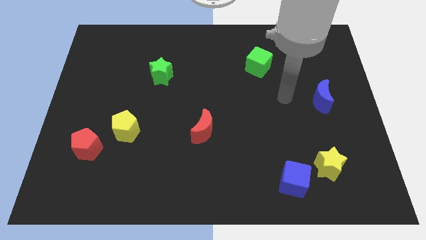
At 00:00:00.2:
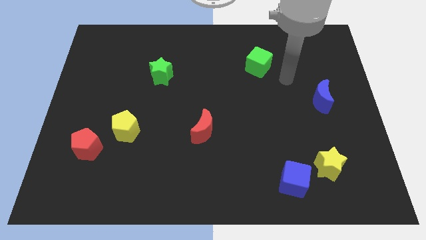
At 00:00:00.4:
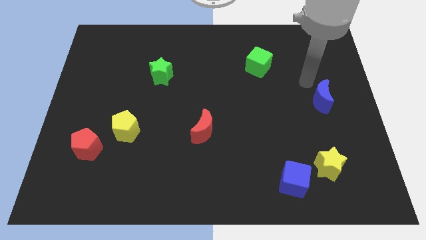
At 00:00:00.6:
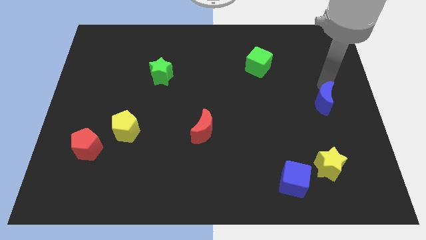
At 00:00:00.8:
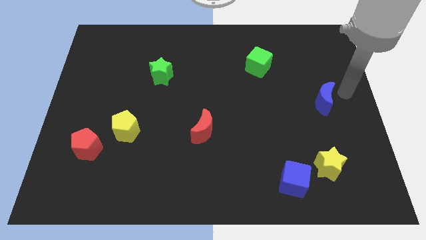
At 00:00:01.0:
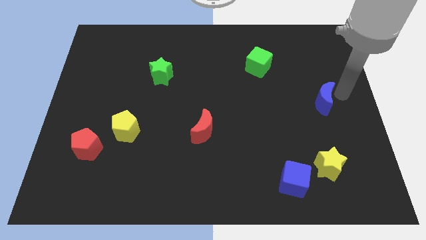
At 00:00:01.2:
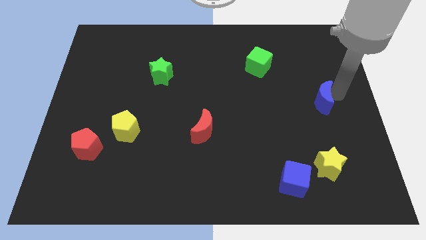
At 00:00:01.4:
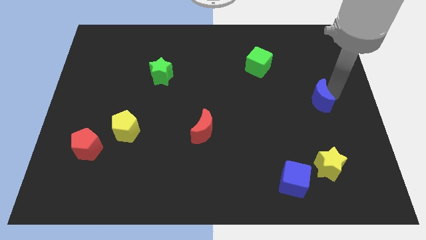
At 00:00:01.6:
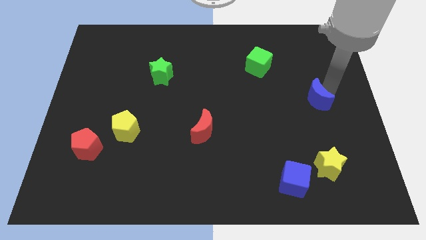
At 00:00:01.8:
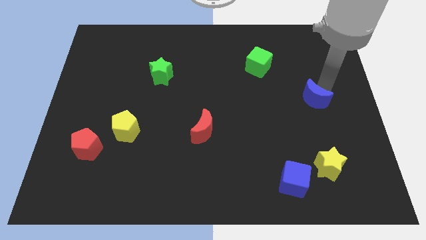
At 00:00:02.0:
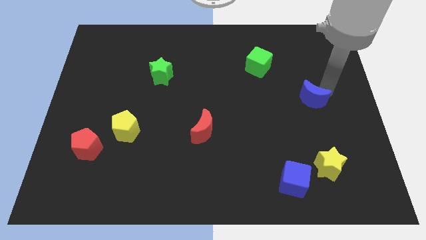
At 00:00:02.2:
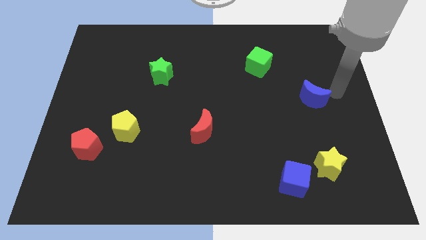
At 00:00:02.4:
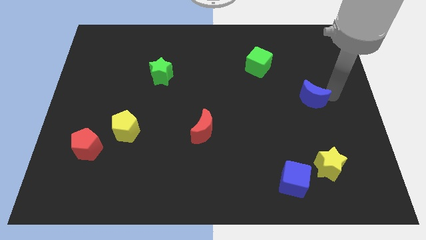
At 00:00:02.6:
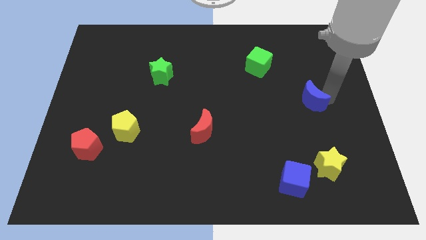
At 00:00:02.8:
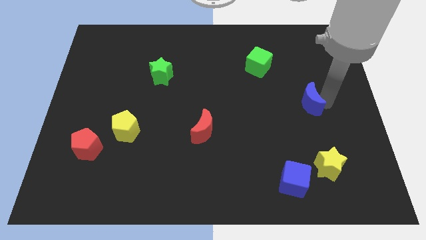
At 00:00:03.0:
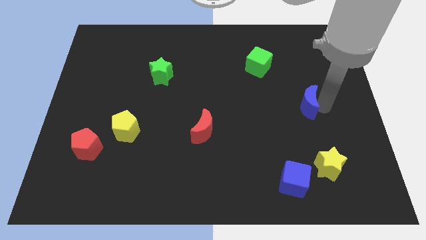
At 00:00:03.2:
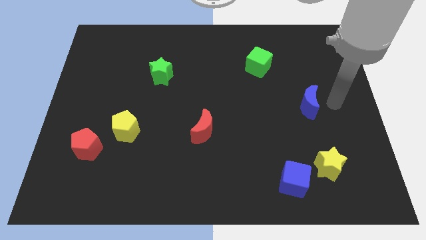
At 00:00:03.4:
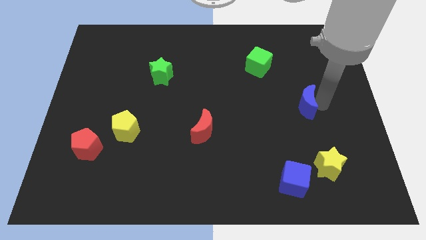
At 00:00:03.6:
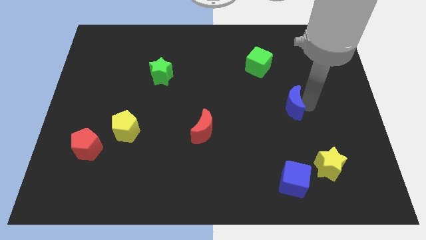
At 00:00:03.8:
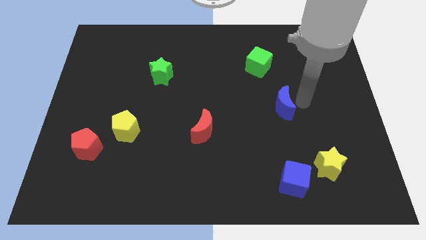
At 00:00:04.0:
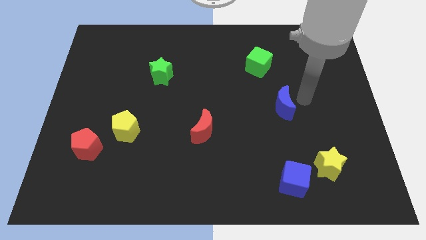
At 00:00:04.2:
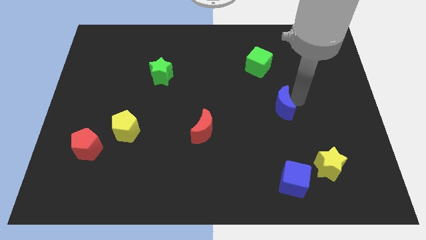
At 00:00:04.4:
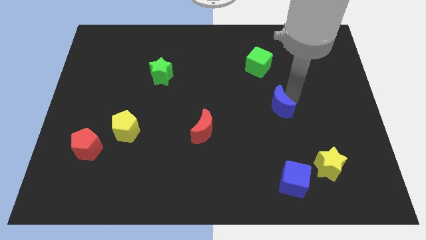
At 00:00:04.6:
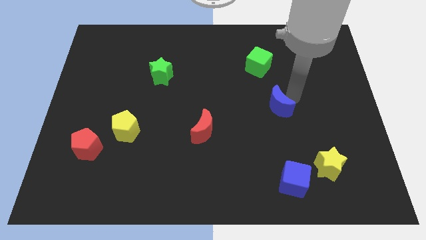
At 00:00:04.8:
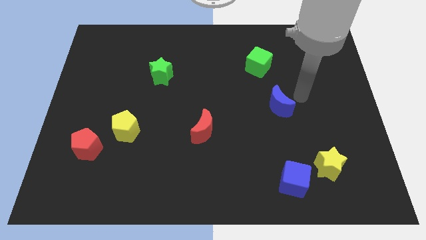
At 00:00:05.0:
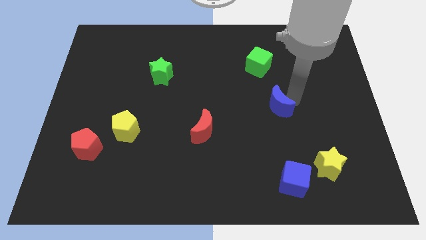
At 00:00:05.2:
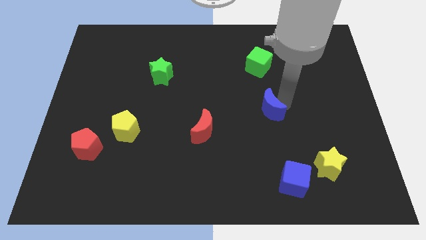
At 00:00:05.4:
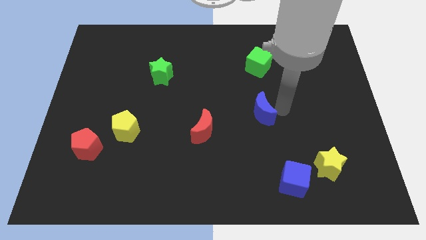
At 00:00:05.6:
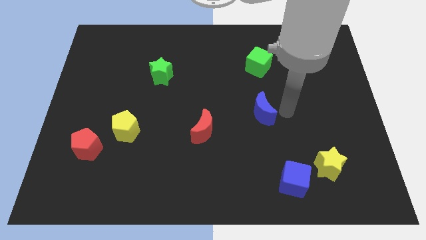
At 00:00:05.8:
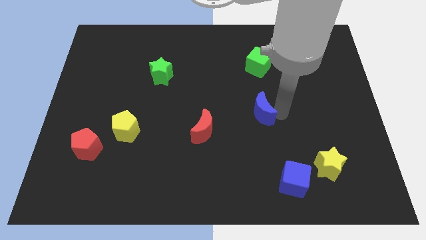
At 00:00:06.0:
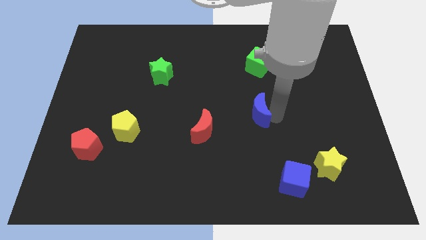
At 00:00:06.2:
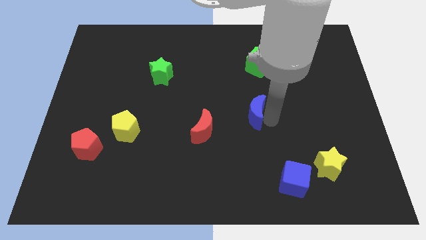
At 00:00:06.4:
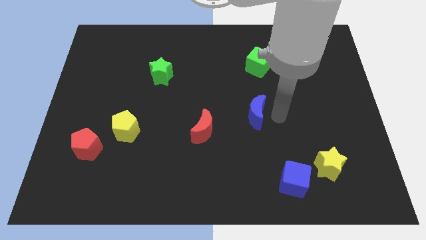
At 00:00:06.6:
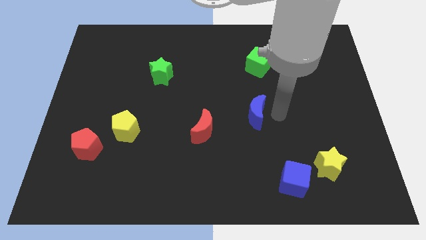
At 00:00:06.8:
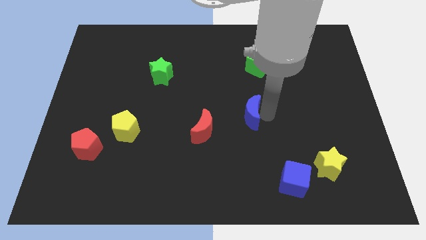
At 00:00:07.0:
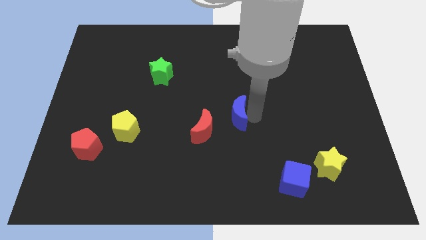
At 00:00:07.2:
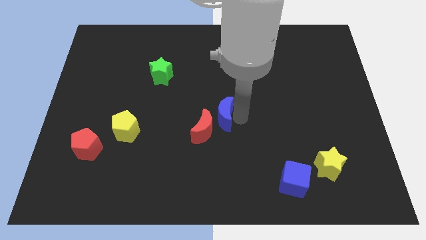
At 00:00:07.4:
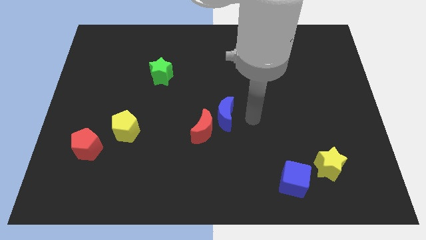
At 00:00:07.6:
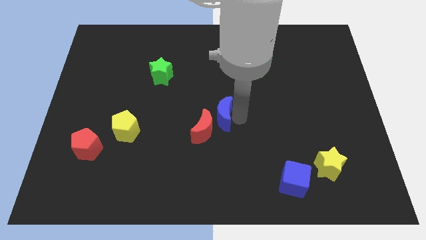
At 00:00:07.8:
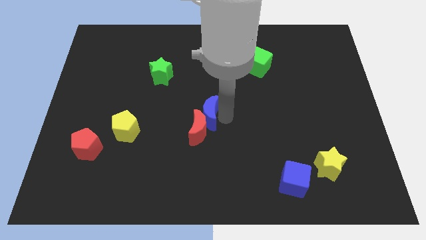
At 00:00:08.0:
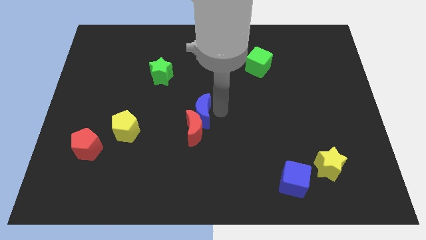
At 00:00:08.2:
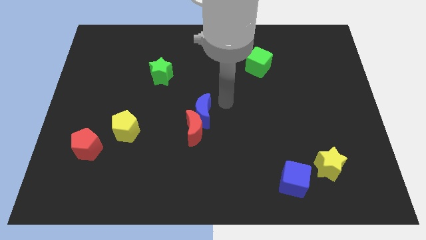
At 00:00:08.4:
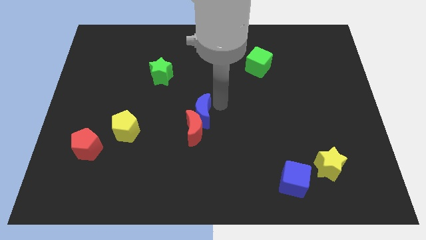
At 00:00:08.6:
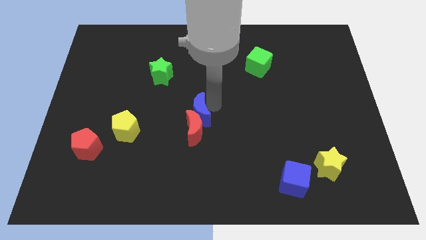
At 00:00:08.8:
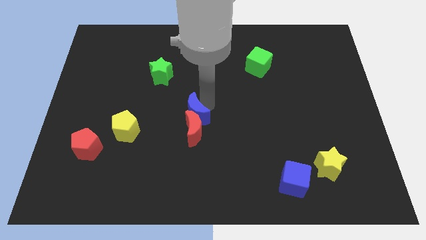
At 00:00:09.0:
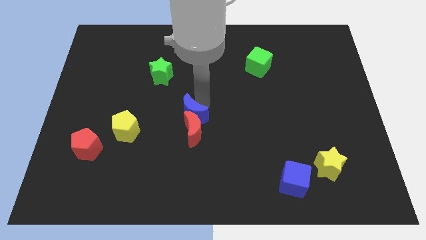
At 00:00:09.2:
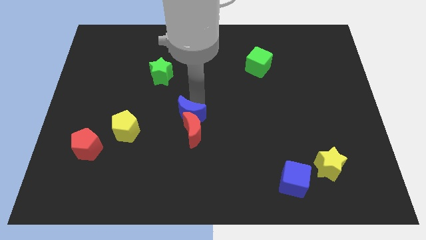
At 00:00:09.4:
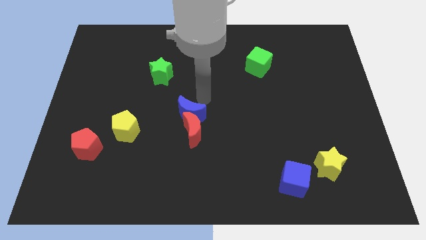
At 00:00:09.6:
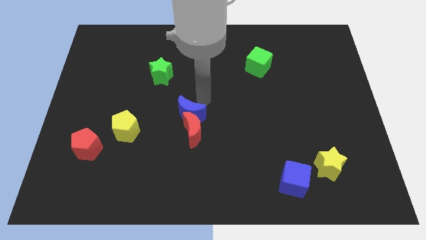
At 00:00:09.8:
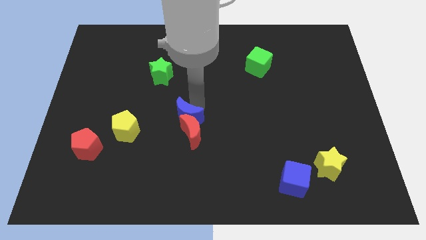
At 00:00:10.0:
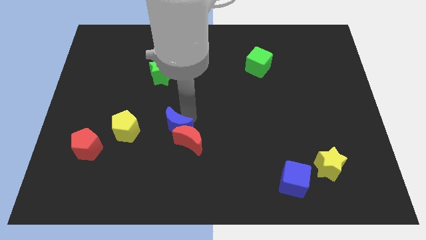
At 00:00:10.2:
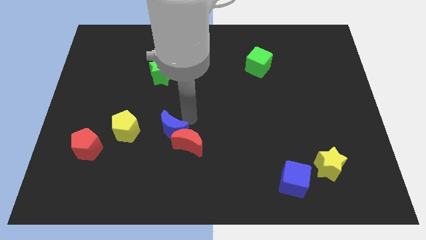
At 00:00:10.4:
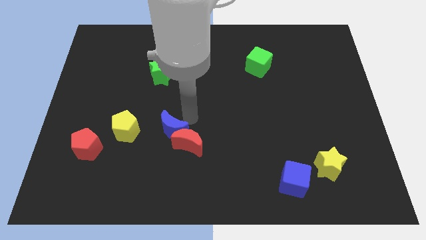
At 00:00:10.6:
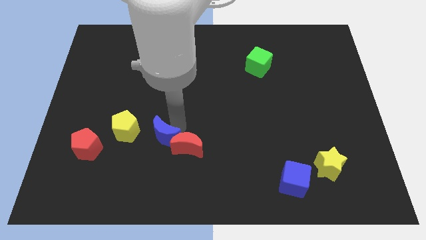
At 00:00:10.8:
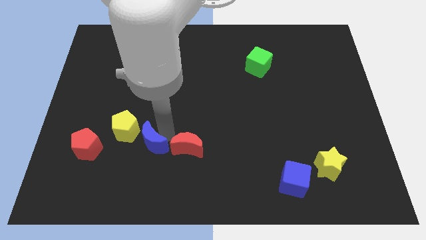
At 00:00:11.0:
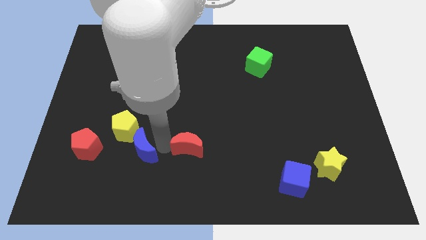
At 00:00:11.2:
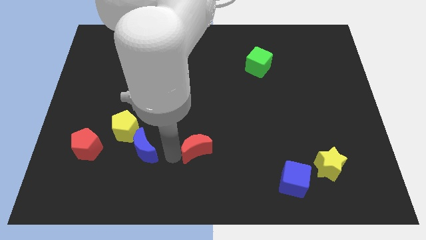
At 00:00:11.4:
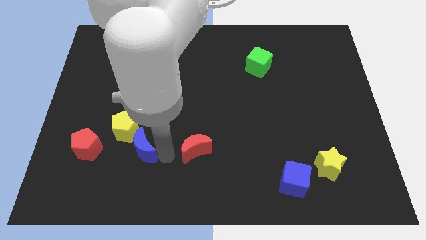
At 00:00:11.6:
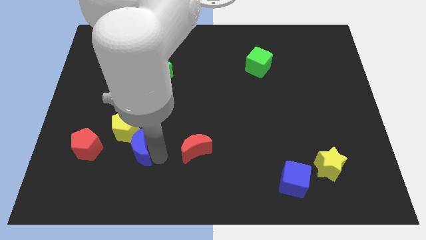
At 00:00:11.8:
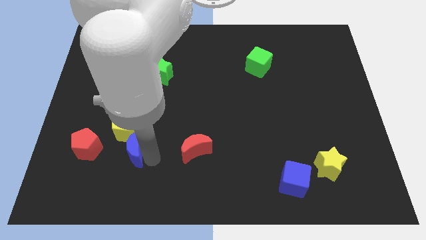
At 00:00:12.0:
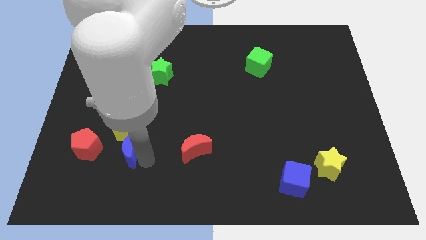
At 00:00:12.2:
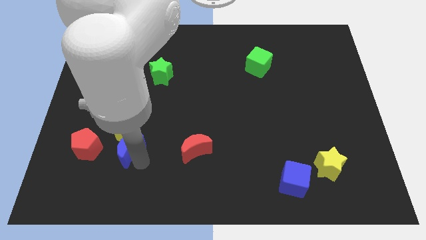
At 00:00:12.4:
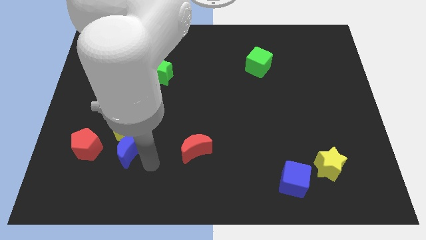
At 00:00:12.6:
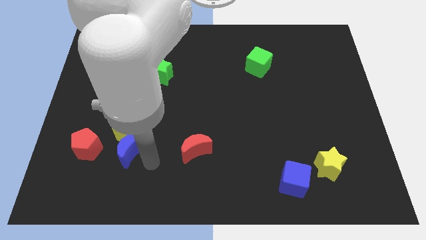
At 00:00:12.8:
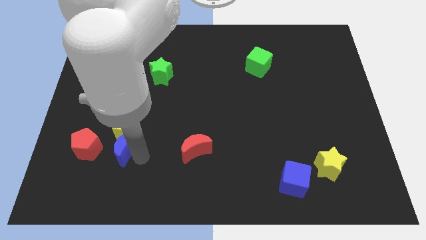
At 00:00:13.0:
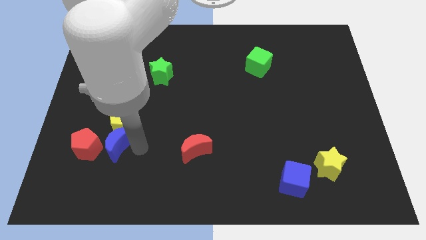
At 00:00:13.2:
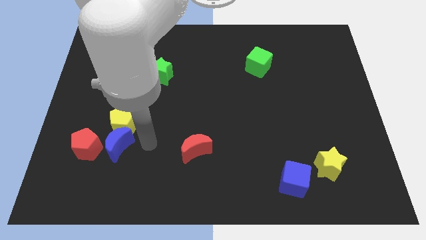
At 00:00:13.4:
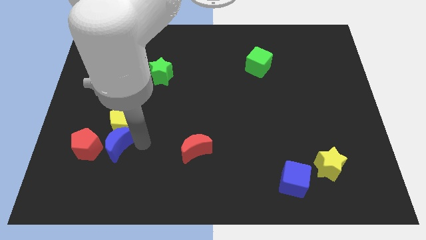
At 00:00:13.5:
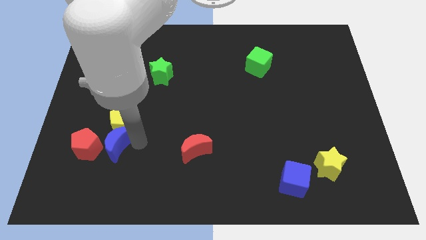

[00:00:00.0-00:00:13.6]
push the blue moon towards the red pentagon

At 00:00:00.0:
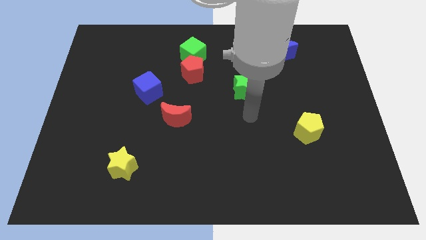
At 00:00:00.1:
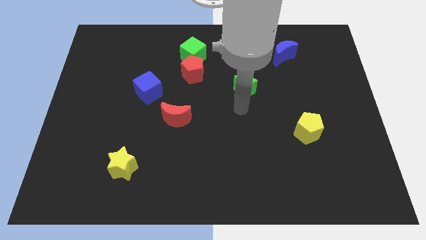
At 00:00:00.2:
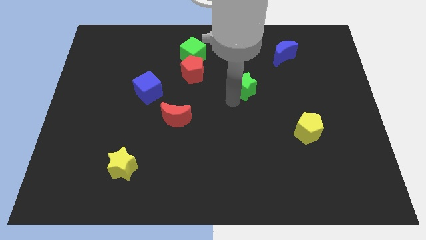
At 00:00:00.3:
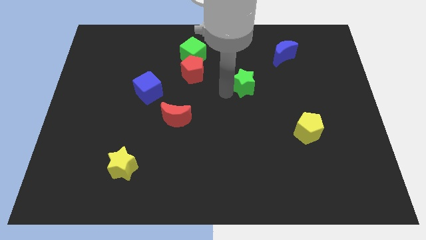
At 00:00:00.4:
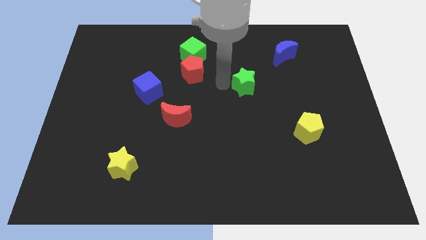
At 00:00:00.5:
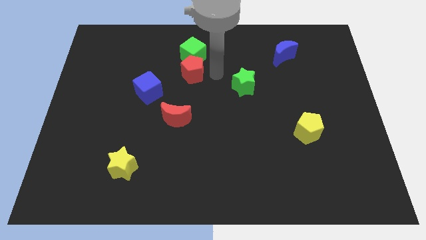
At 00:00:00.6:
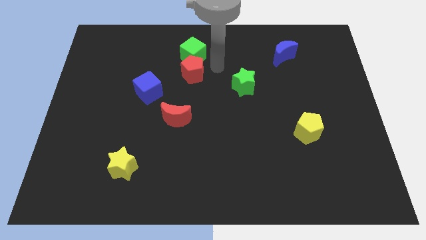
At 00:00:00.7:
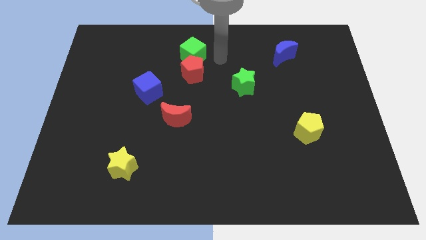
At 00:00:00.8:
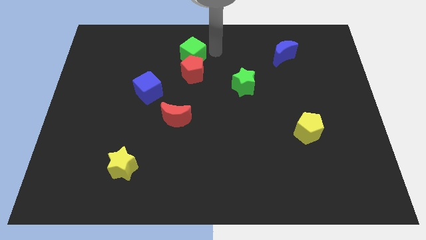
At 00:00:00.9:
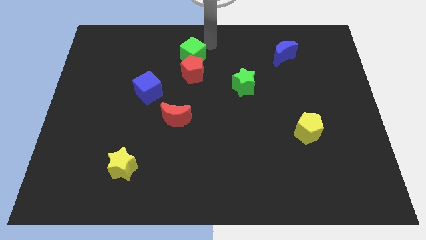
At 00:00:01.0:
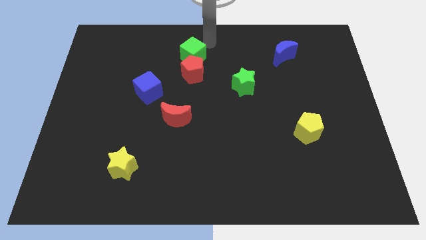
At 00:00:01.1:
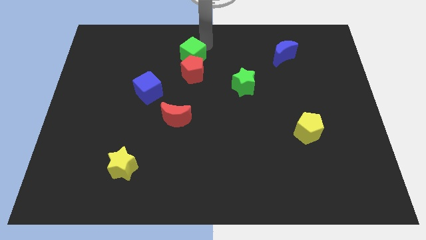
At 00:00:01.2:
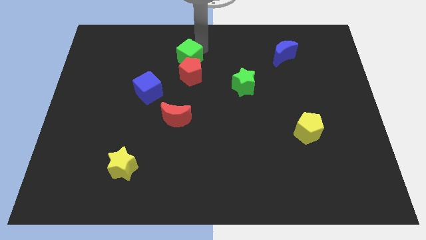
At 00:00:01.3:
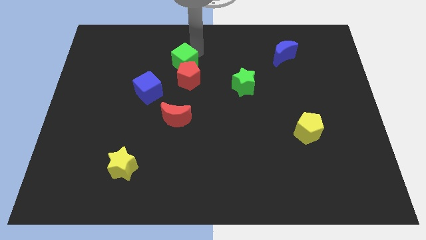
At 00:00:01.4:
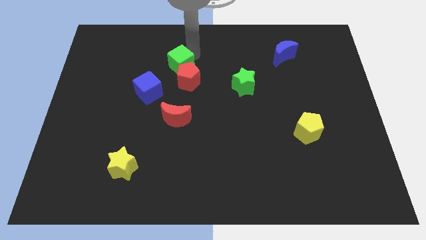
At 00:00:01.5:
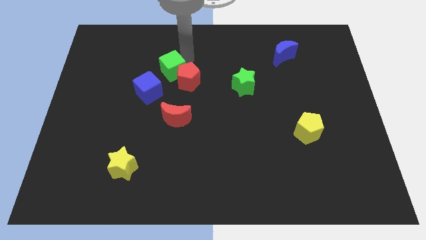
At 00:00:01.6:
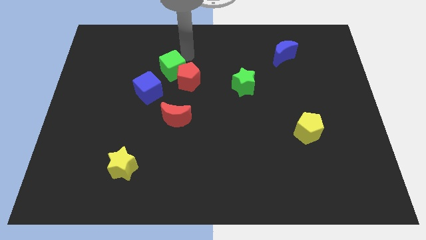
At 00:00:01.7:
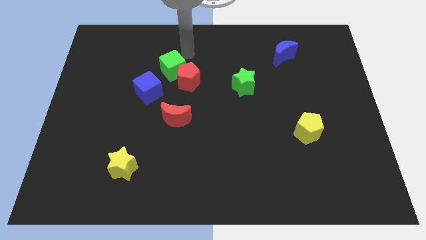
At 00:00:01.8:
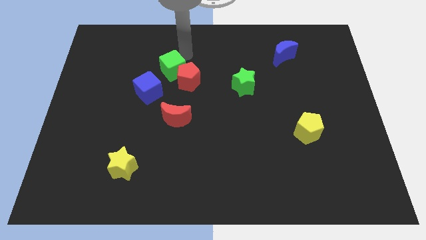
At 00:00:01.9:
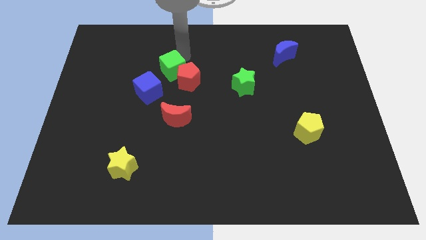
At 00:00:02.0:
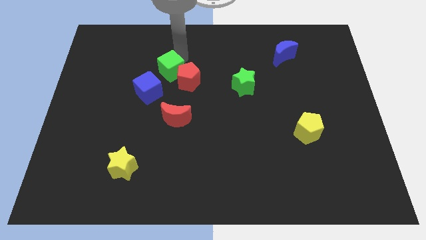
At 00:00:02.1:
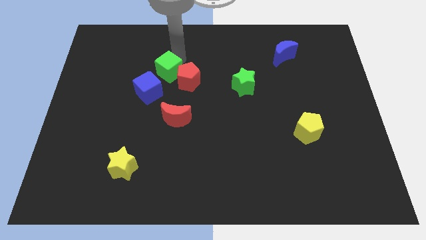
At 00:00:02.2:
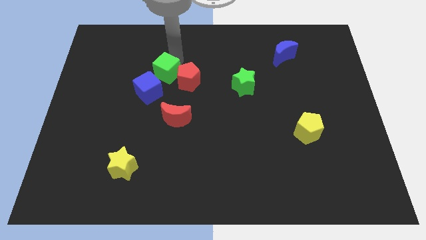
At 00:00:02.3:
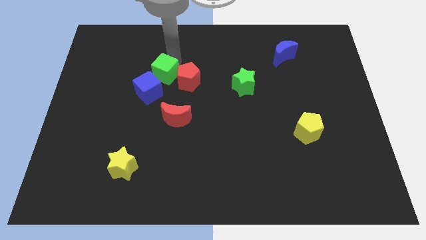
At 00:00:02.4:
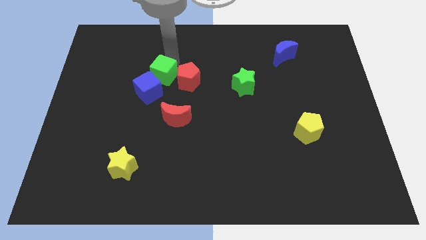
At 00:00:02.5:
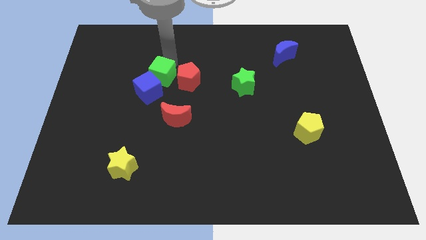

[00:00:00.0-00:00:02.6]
put the green cube next to the blue cube
